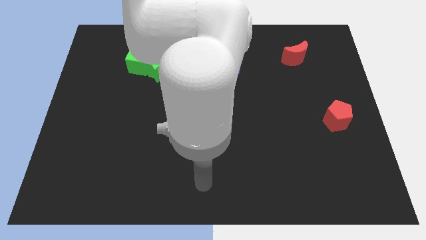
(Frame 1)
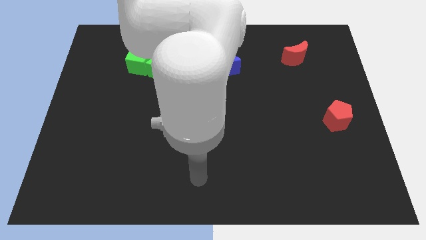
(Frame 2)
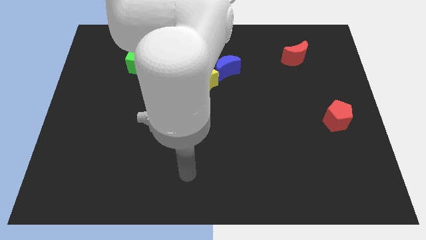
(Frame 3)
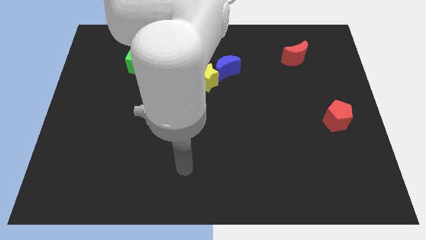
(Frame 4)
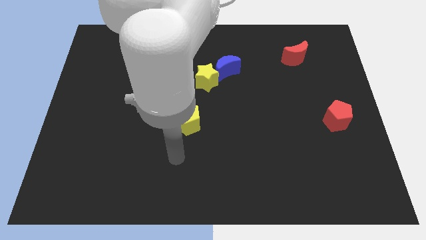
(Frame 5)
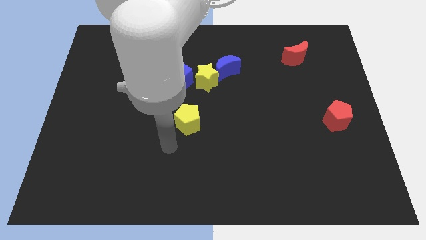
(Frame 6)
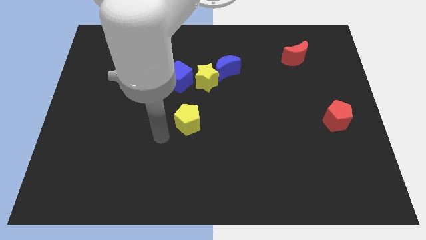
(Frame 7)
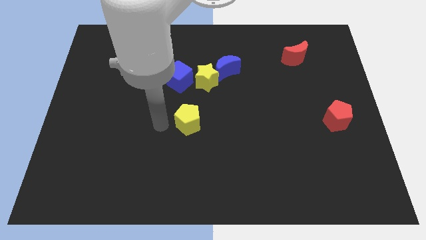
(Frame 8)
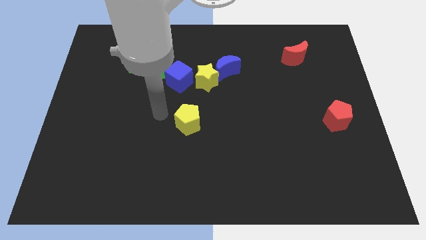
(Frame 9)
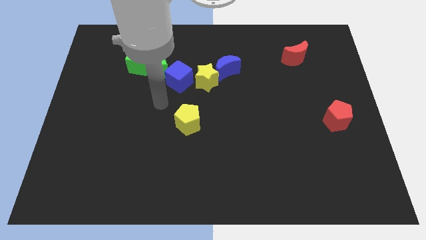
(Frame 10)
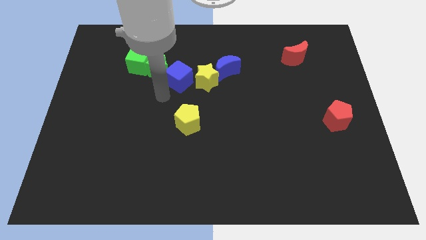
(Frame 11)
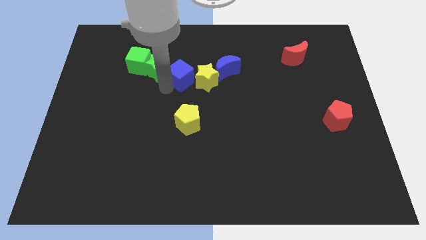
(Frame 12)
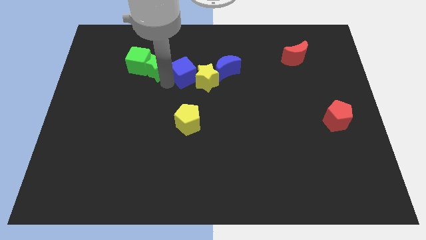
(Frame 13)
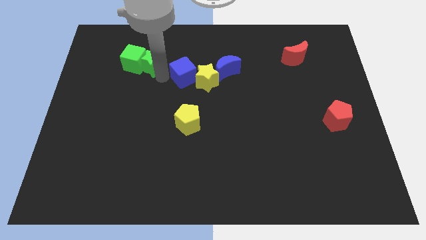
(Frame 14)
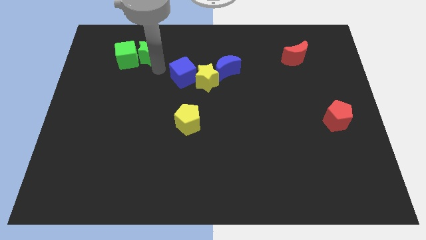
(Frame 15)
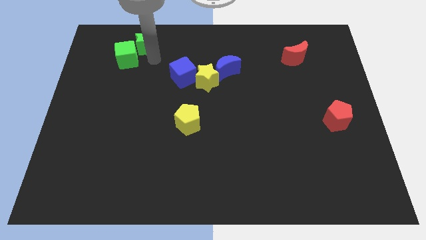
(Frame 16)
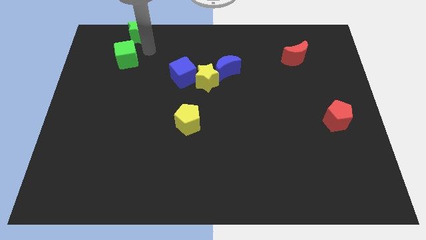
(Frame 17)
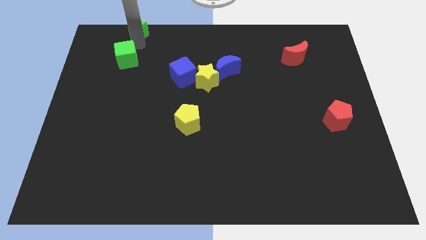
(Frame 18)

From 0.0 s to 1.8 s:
pull the green cube apart from the green star

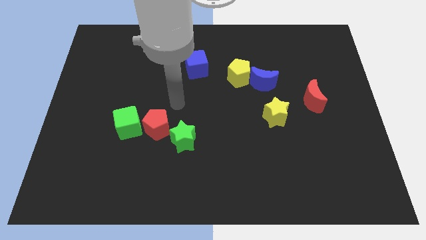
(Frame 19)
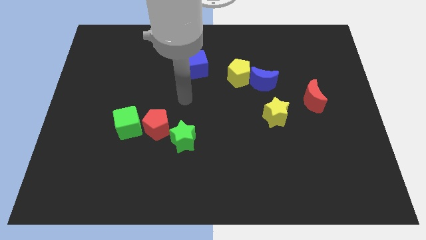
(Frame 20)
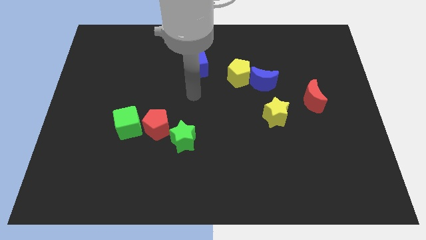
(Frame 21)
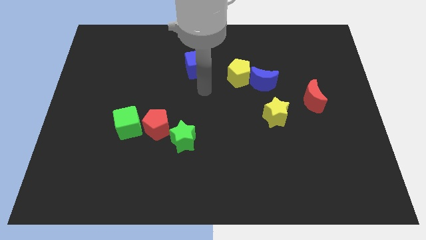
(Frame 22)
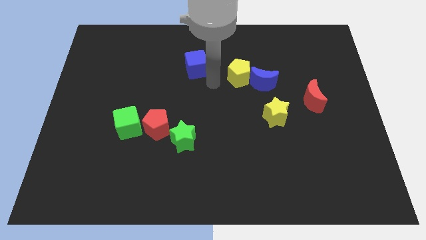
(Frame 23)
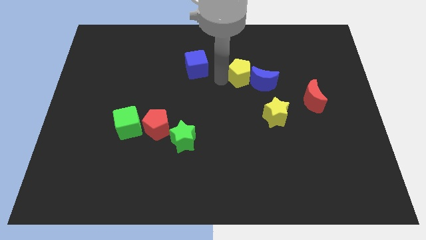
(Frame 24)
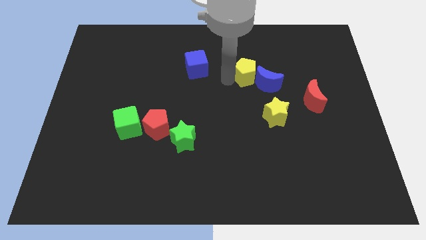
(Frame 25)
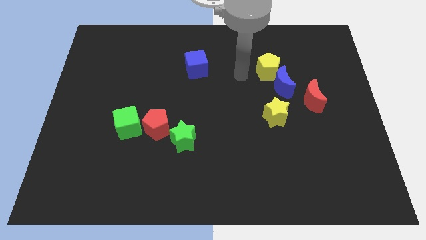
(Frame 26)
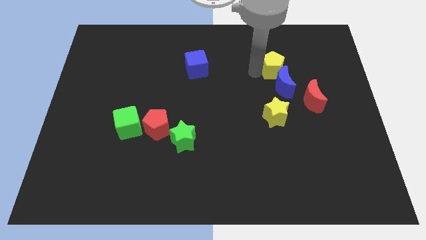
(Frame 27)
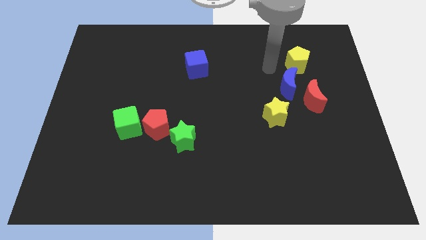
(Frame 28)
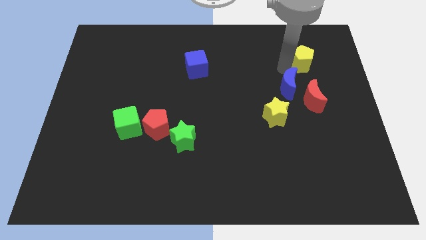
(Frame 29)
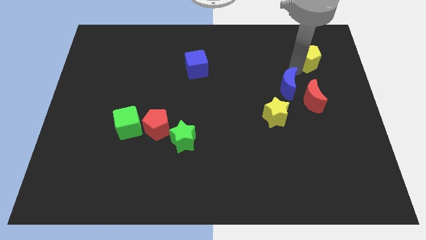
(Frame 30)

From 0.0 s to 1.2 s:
pull the blue moon apart from the yellow pentagon

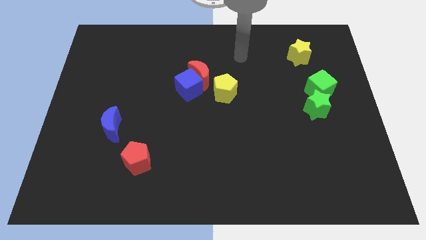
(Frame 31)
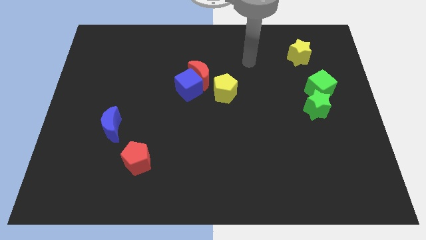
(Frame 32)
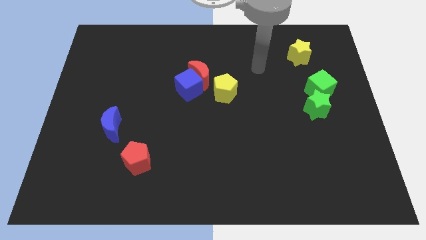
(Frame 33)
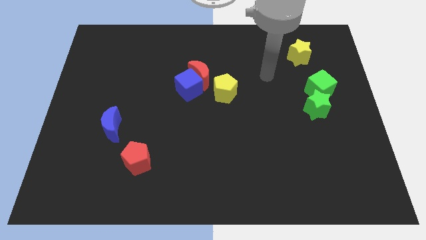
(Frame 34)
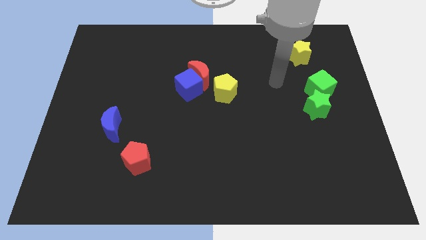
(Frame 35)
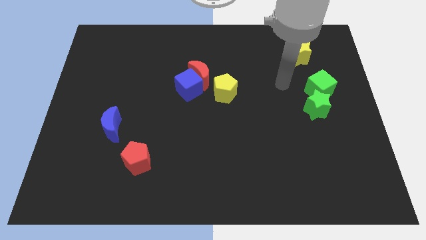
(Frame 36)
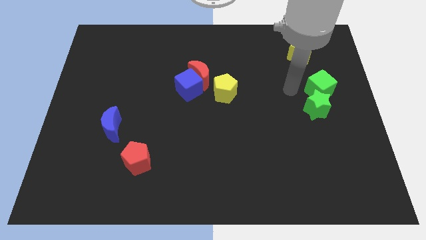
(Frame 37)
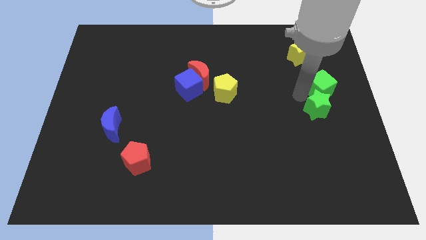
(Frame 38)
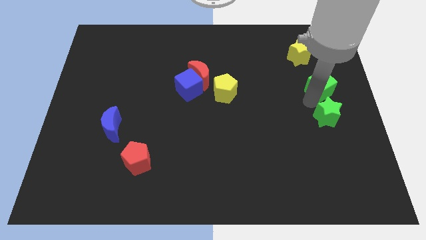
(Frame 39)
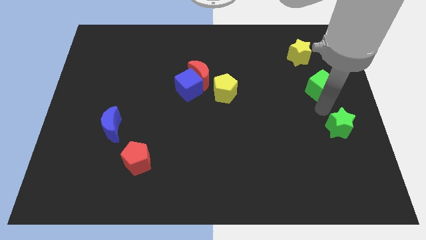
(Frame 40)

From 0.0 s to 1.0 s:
separate the green cube from the green star
